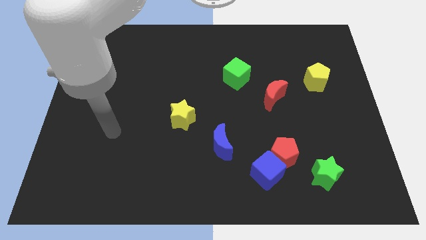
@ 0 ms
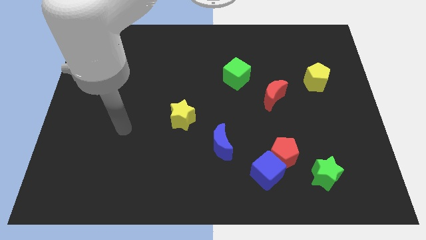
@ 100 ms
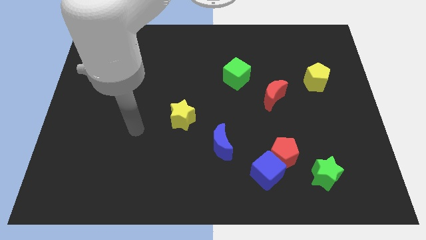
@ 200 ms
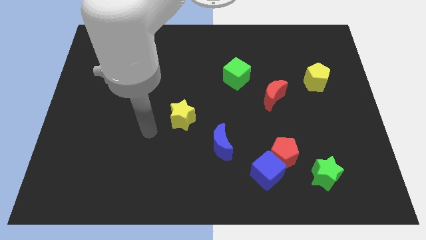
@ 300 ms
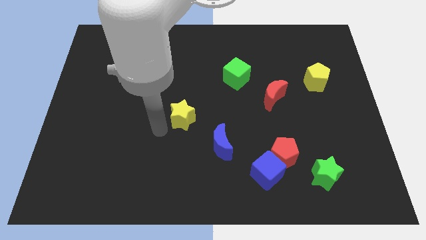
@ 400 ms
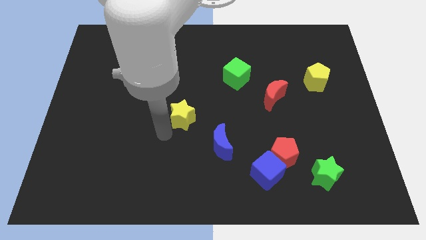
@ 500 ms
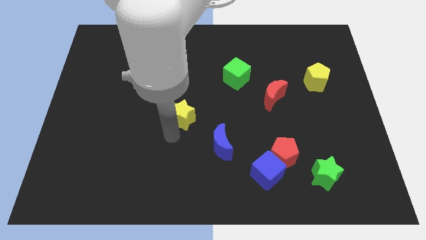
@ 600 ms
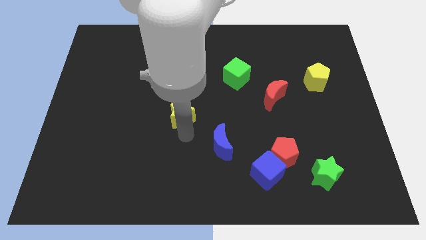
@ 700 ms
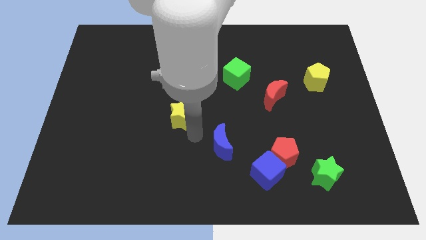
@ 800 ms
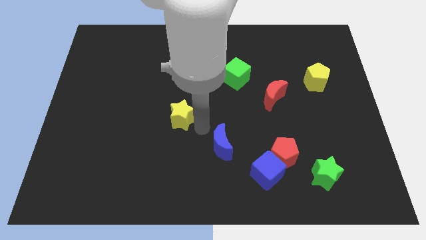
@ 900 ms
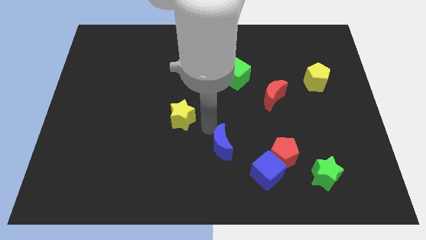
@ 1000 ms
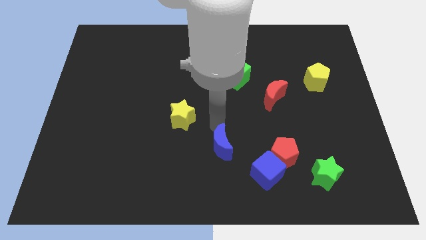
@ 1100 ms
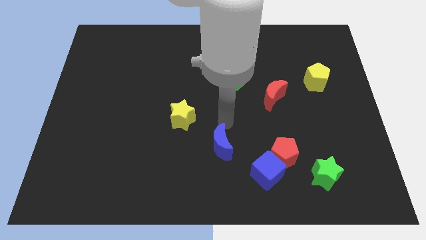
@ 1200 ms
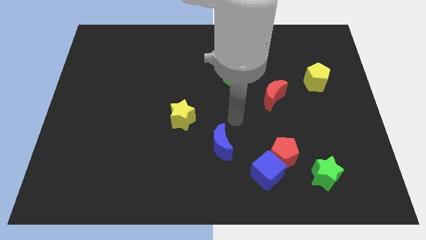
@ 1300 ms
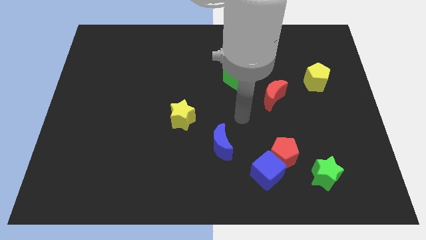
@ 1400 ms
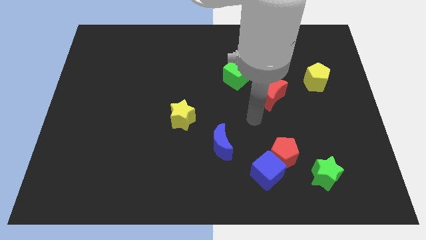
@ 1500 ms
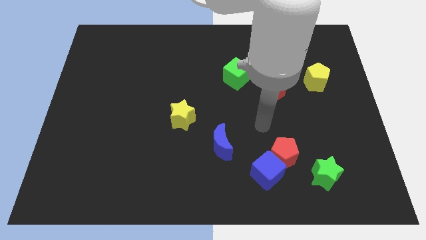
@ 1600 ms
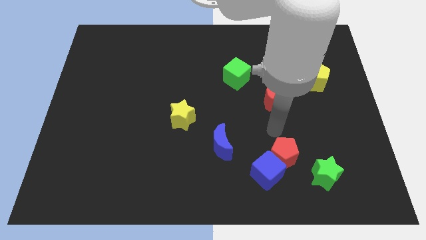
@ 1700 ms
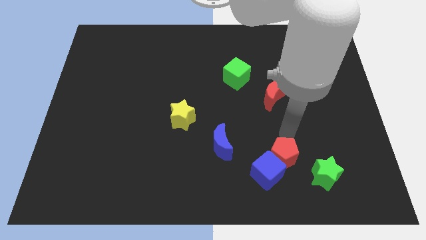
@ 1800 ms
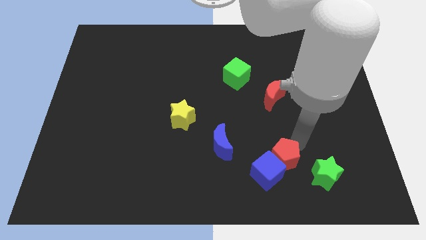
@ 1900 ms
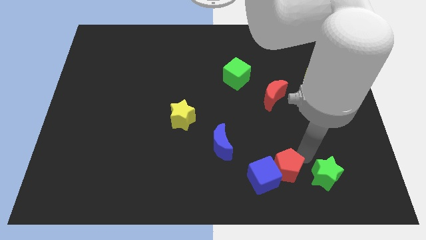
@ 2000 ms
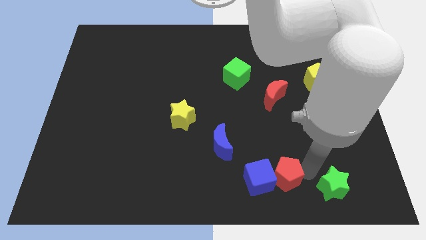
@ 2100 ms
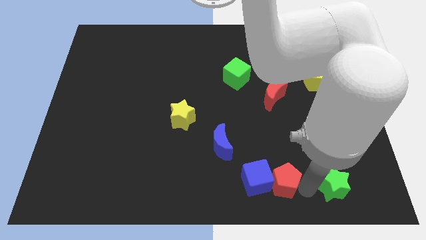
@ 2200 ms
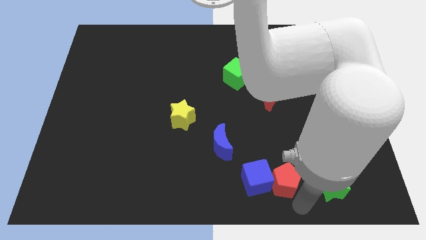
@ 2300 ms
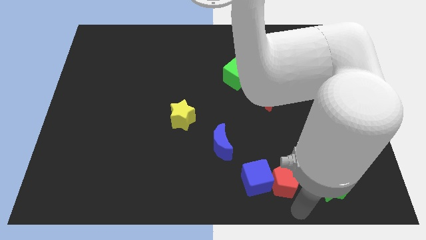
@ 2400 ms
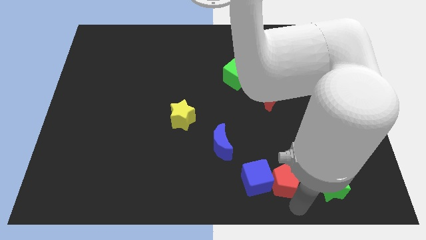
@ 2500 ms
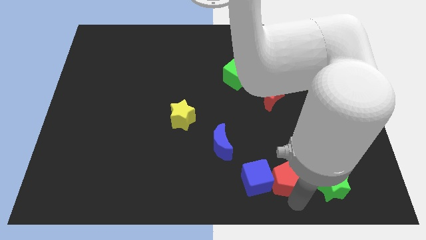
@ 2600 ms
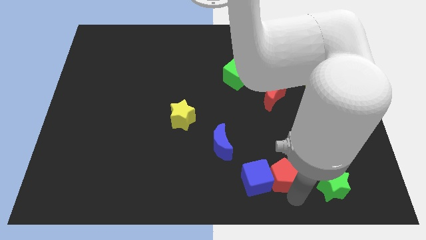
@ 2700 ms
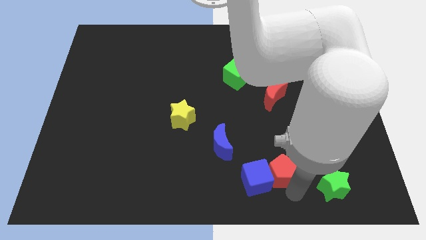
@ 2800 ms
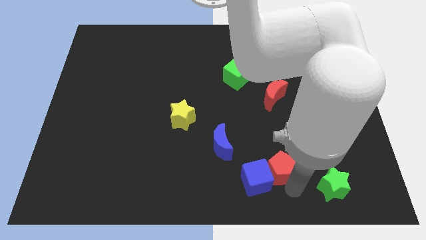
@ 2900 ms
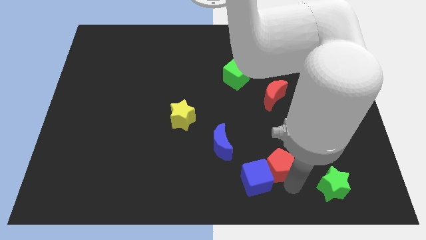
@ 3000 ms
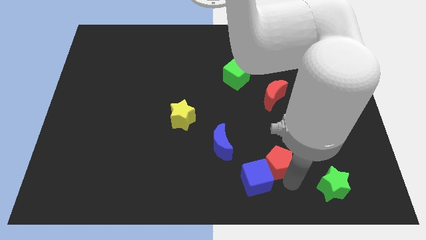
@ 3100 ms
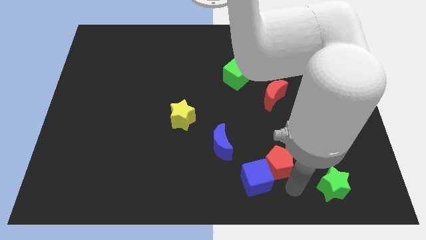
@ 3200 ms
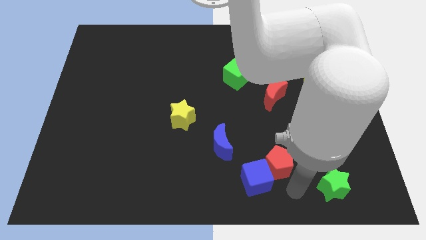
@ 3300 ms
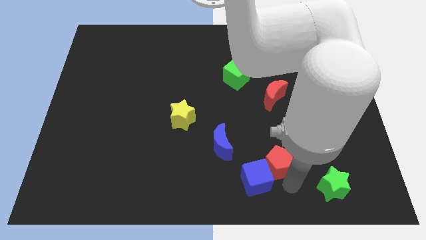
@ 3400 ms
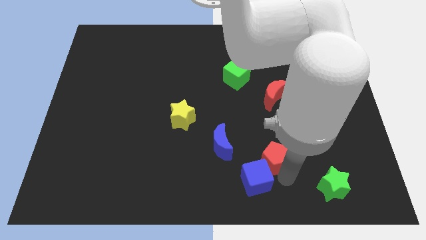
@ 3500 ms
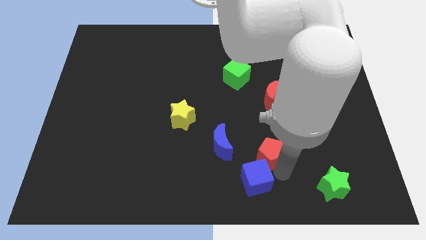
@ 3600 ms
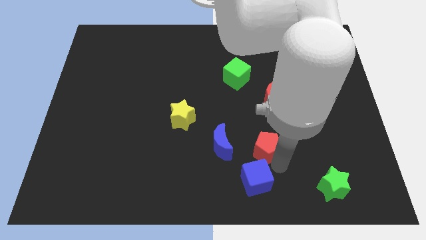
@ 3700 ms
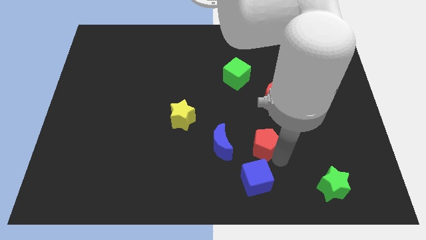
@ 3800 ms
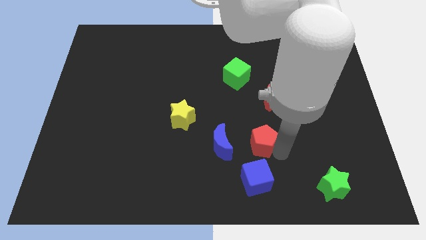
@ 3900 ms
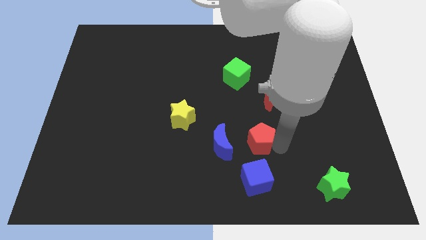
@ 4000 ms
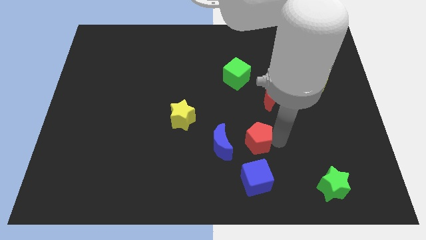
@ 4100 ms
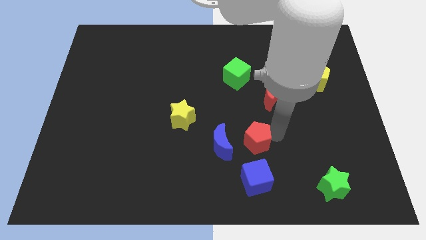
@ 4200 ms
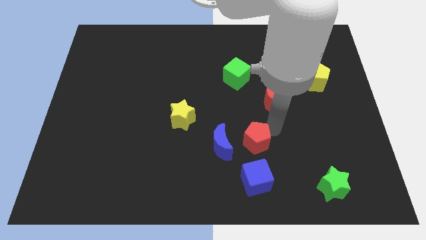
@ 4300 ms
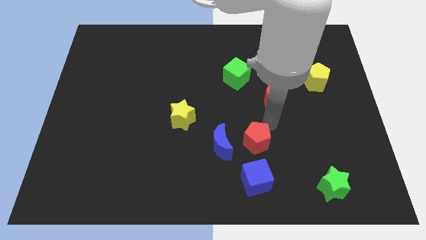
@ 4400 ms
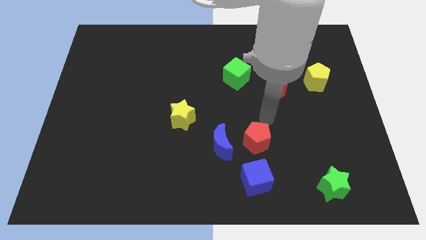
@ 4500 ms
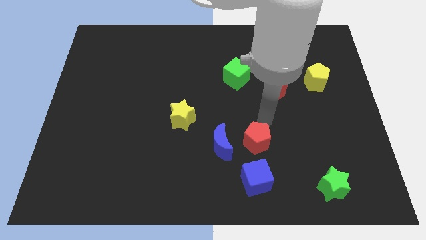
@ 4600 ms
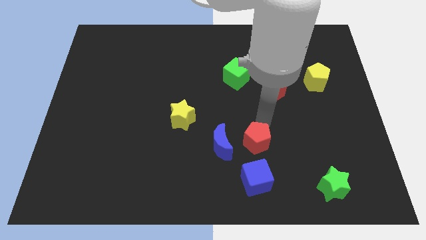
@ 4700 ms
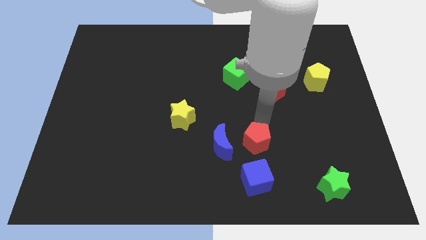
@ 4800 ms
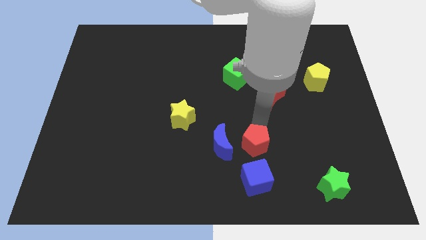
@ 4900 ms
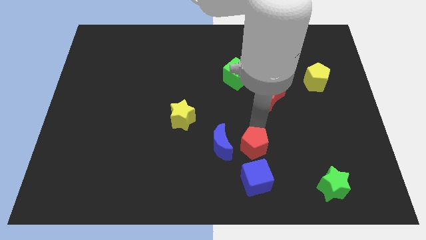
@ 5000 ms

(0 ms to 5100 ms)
move the red pentagon diagonally down and to the right of the blue moon
